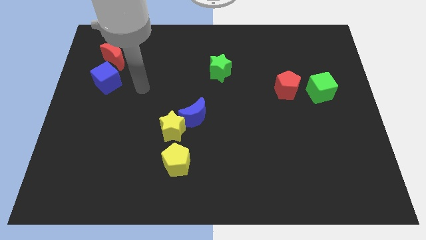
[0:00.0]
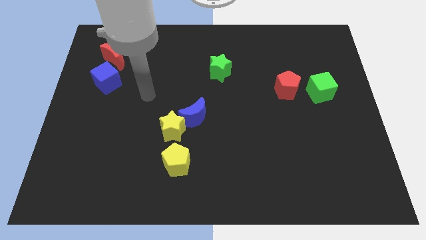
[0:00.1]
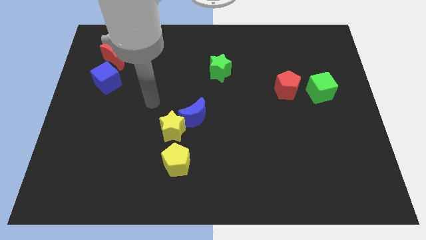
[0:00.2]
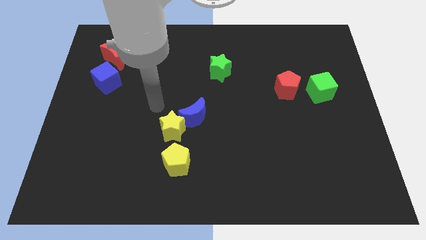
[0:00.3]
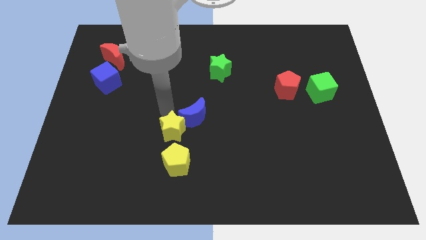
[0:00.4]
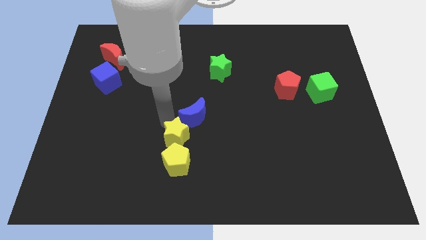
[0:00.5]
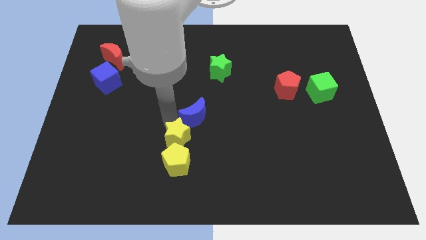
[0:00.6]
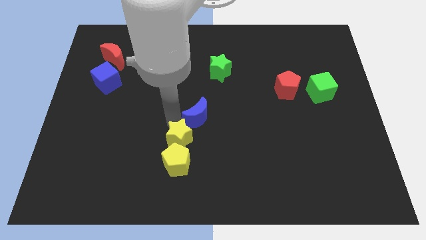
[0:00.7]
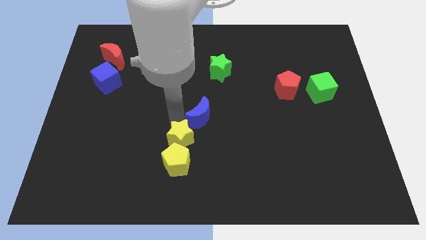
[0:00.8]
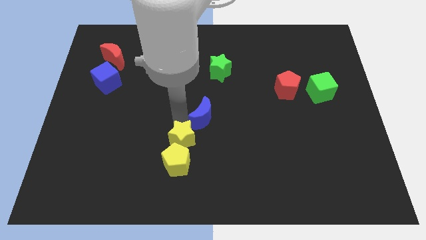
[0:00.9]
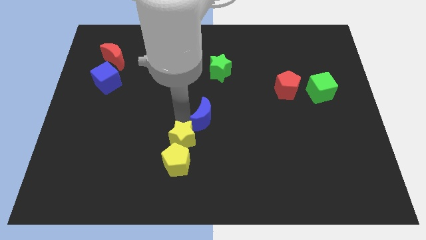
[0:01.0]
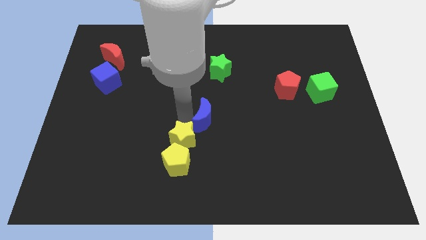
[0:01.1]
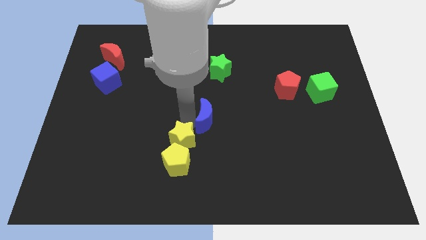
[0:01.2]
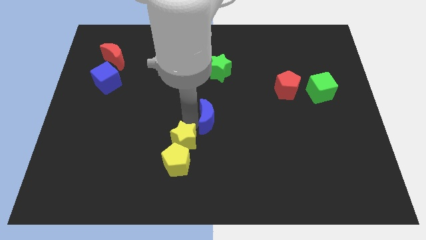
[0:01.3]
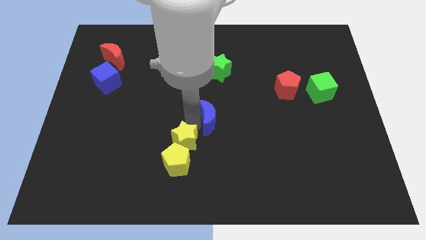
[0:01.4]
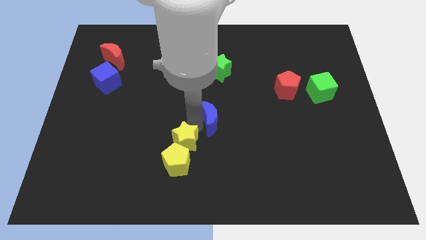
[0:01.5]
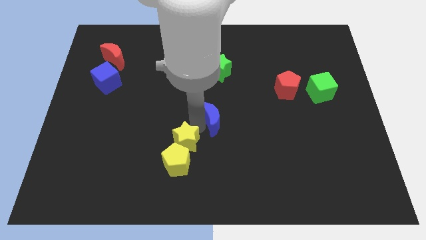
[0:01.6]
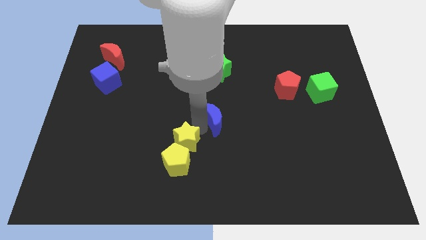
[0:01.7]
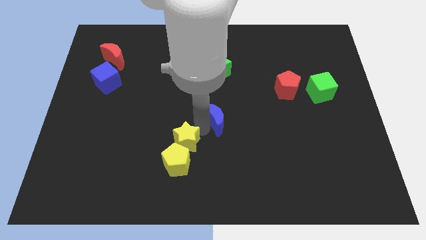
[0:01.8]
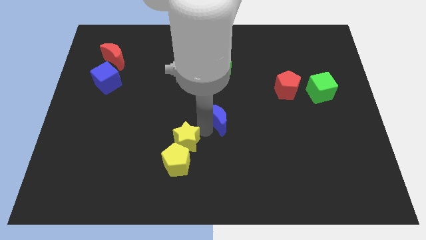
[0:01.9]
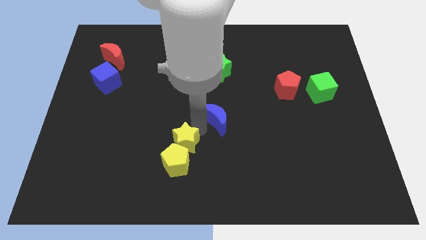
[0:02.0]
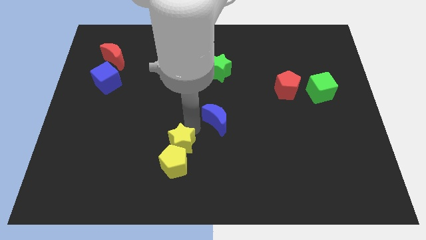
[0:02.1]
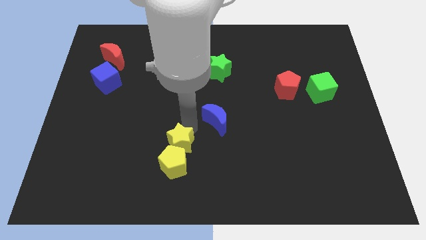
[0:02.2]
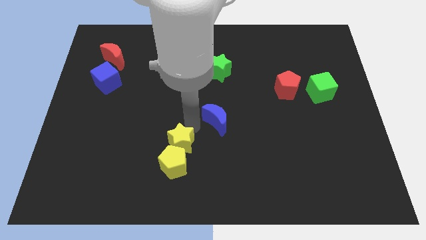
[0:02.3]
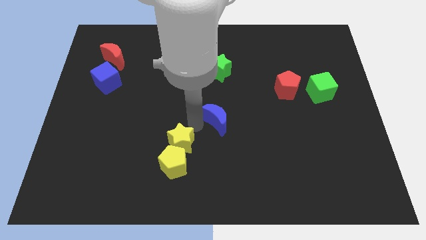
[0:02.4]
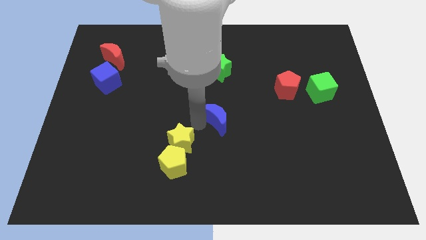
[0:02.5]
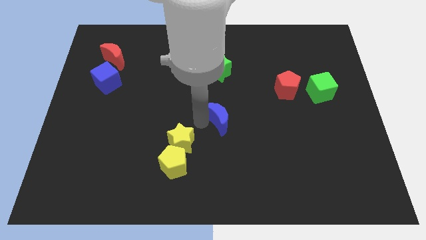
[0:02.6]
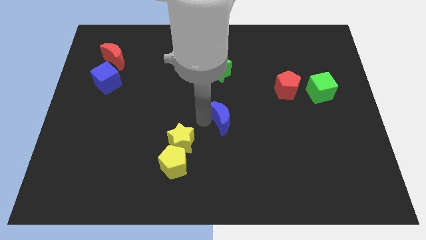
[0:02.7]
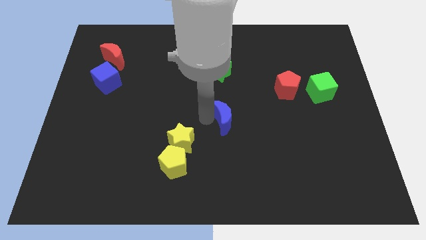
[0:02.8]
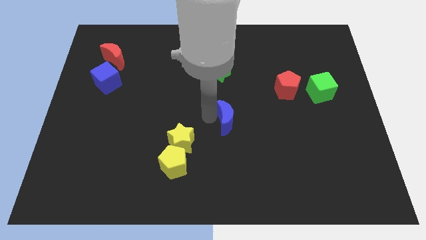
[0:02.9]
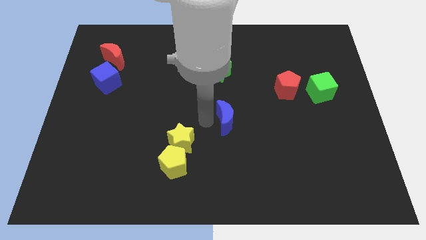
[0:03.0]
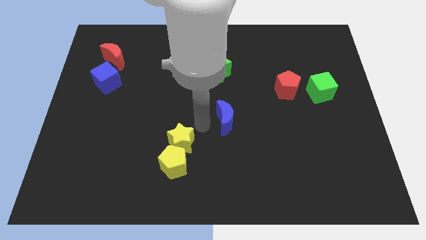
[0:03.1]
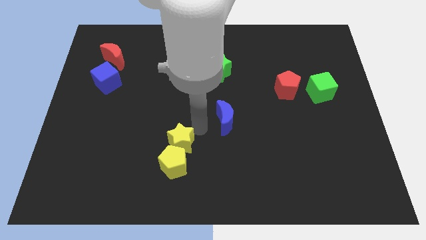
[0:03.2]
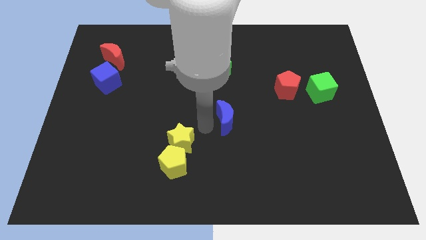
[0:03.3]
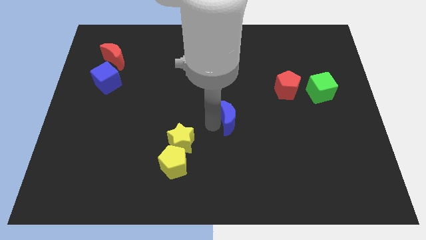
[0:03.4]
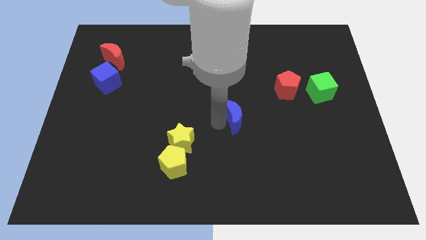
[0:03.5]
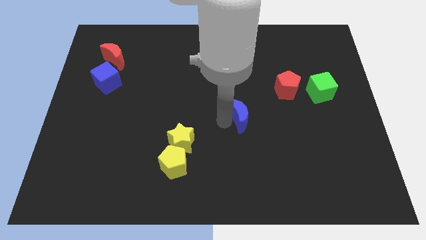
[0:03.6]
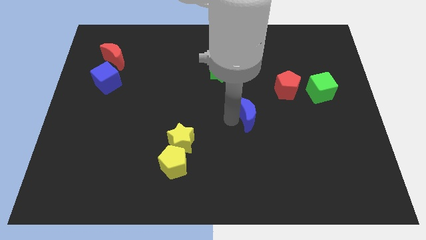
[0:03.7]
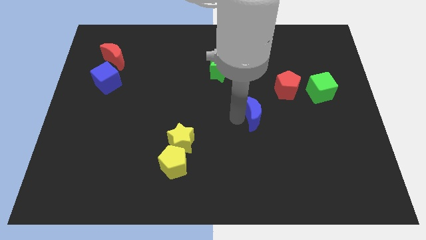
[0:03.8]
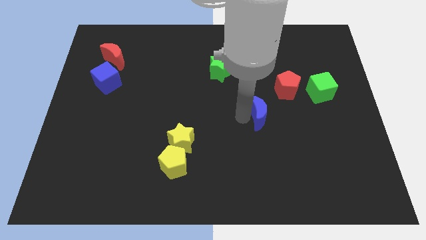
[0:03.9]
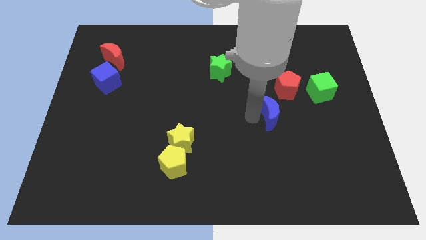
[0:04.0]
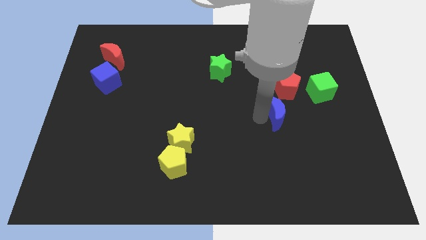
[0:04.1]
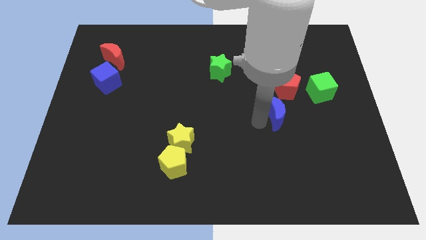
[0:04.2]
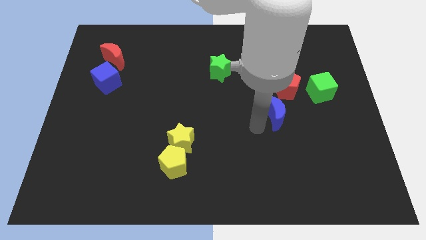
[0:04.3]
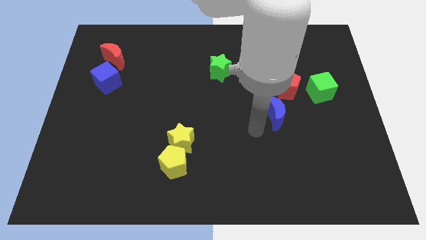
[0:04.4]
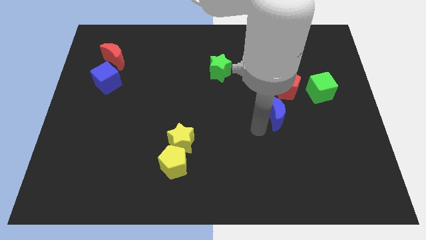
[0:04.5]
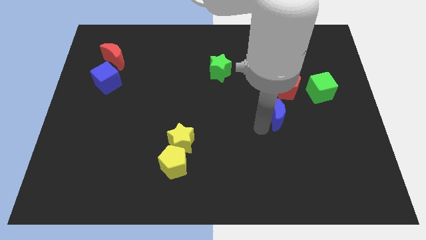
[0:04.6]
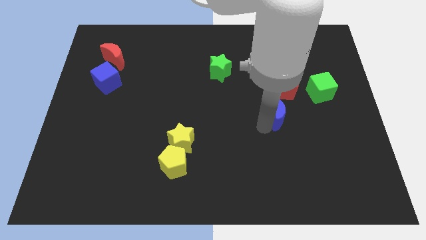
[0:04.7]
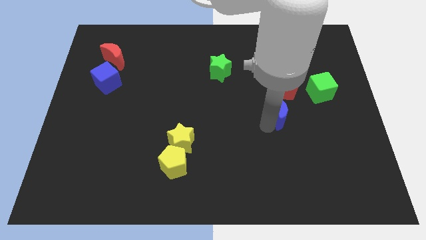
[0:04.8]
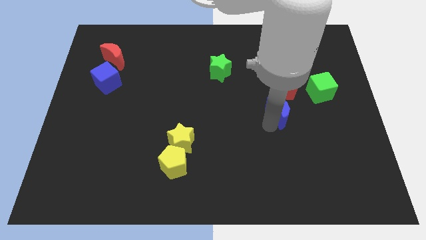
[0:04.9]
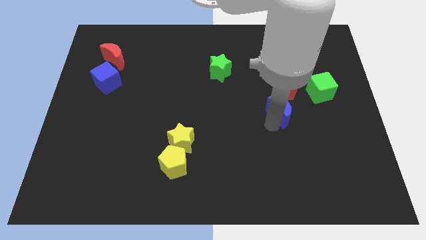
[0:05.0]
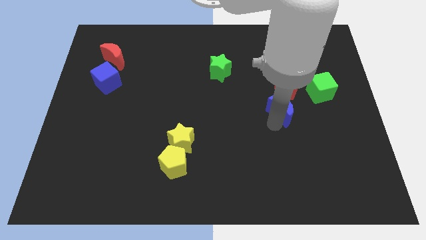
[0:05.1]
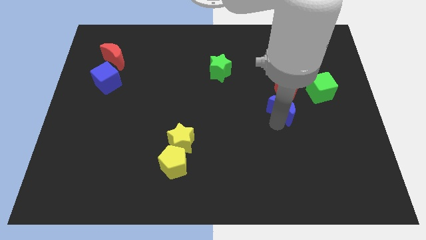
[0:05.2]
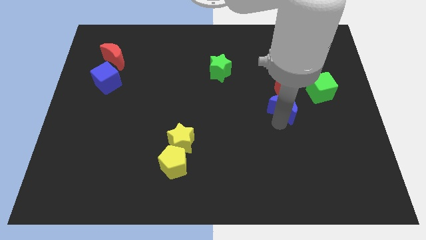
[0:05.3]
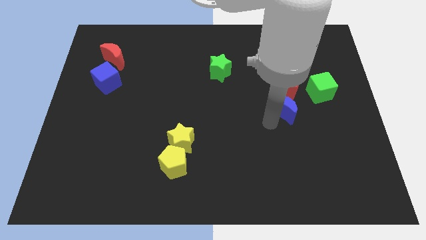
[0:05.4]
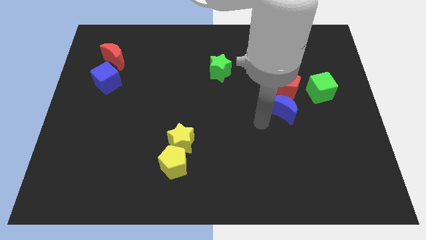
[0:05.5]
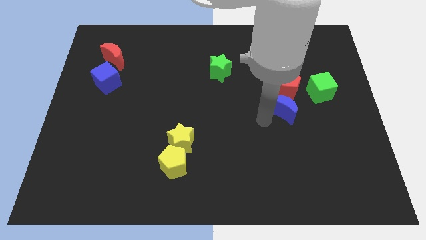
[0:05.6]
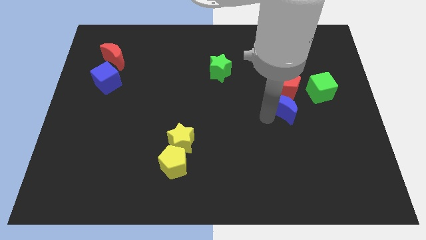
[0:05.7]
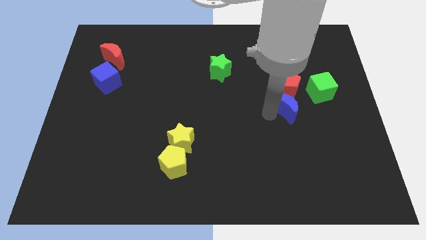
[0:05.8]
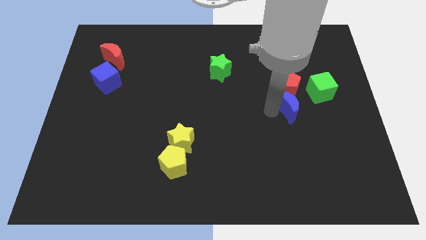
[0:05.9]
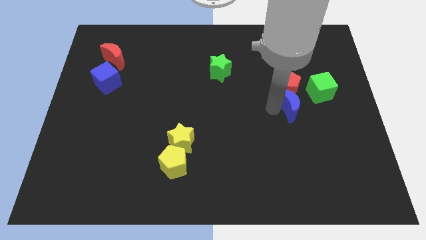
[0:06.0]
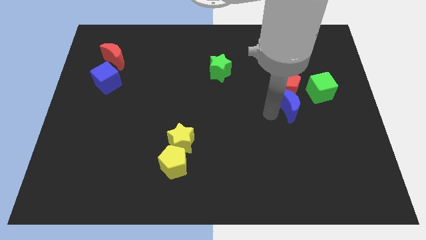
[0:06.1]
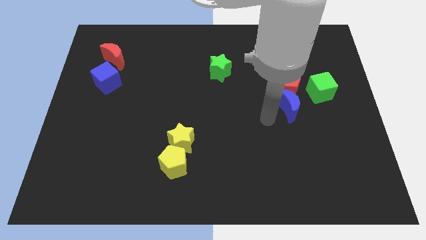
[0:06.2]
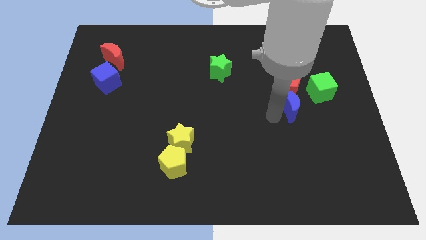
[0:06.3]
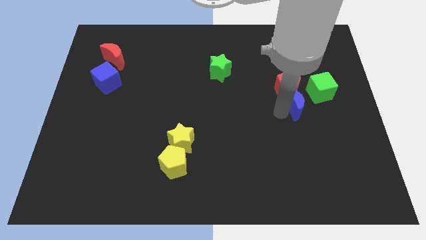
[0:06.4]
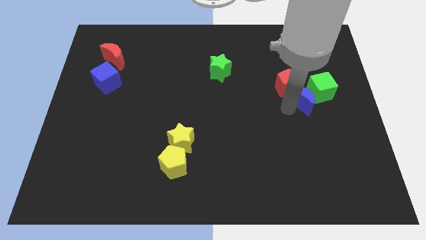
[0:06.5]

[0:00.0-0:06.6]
put the blue moon to the green cube
